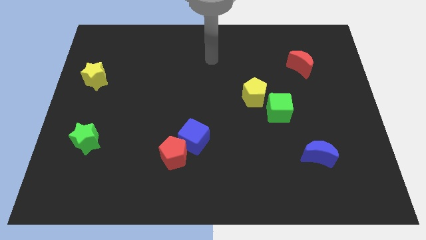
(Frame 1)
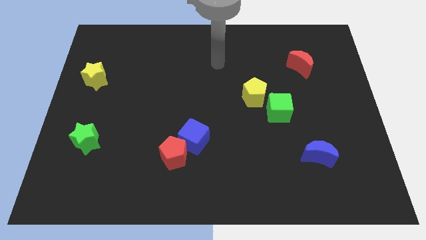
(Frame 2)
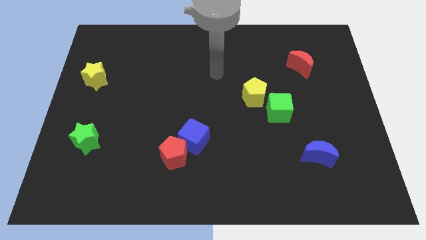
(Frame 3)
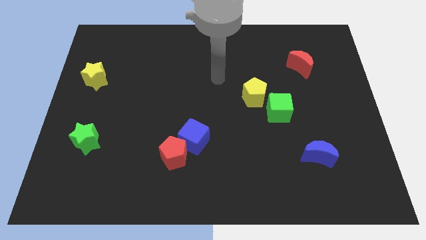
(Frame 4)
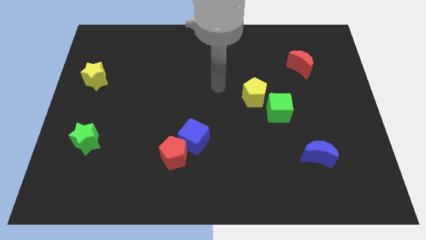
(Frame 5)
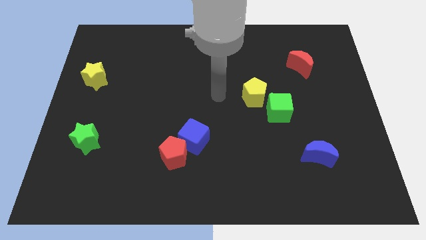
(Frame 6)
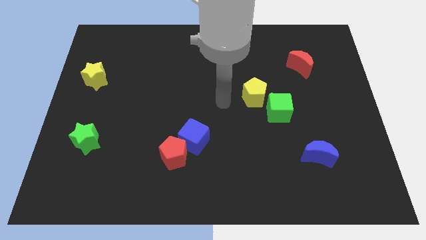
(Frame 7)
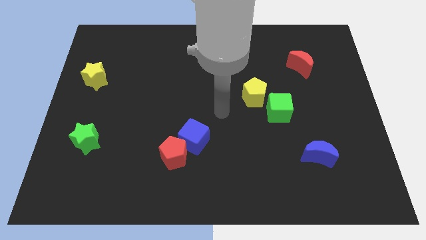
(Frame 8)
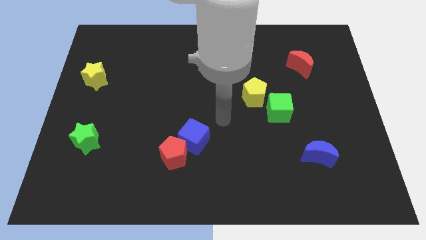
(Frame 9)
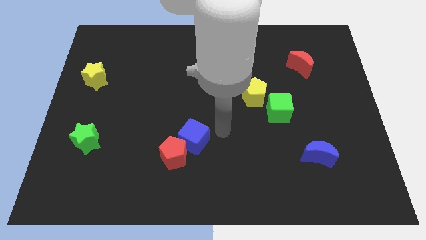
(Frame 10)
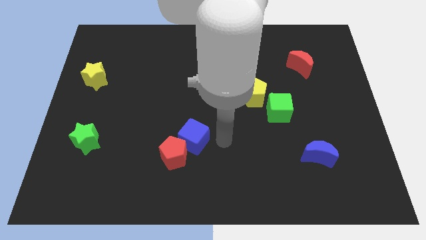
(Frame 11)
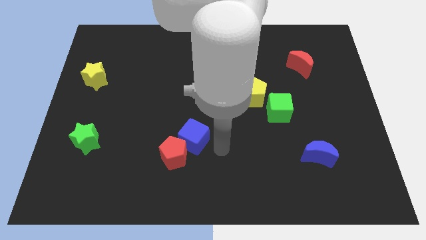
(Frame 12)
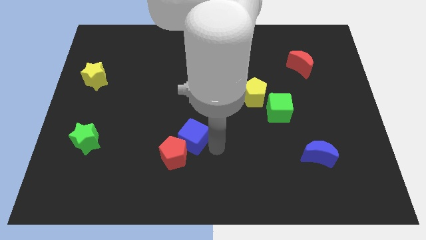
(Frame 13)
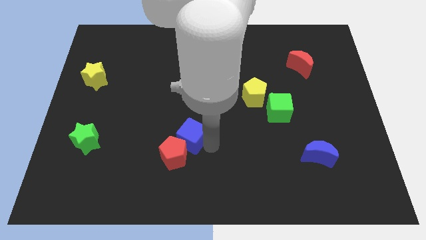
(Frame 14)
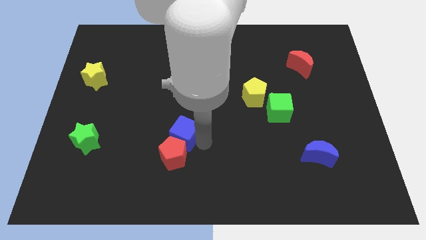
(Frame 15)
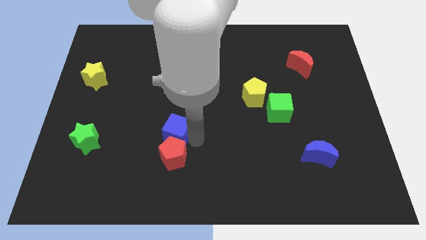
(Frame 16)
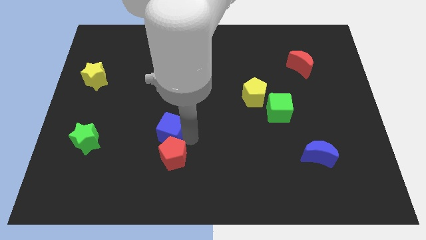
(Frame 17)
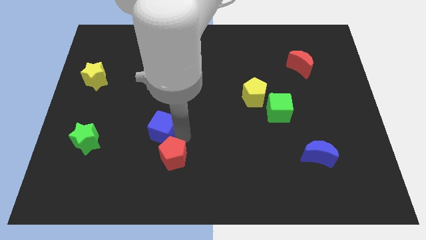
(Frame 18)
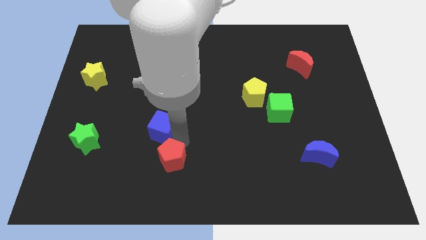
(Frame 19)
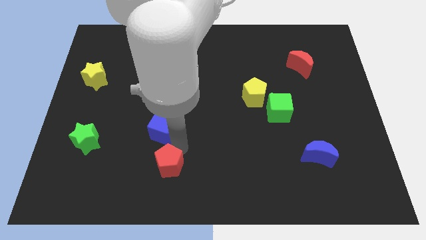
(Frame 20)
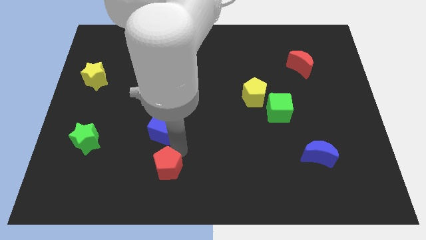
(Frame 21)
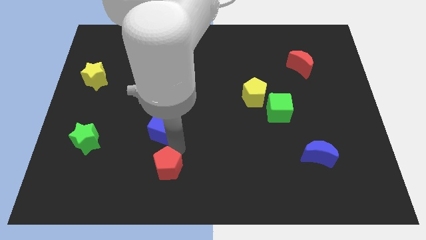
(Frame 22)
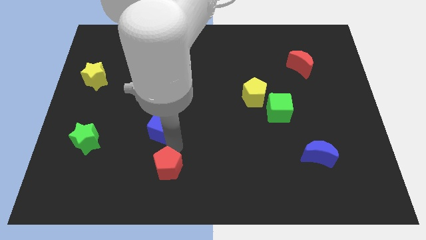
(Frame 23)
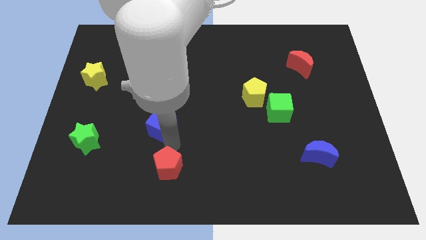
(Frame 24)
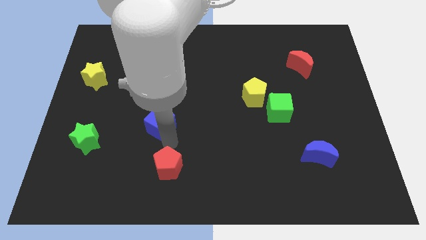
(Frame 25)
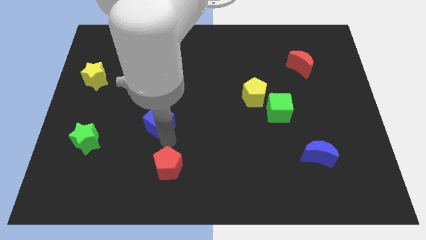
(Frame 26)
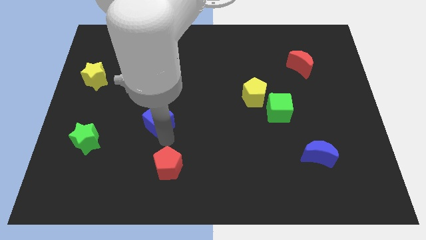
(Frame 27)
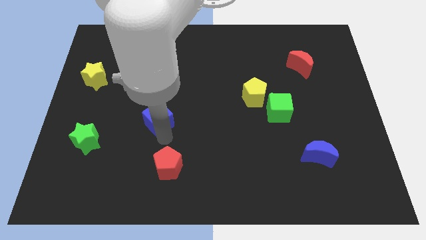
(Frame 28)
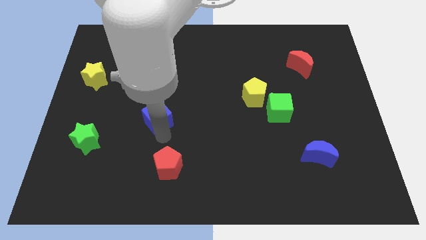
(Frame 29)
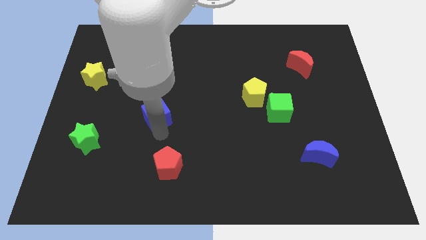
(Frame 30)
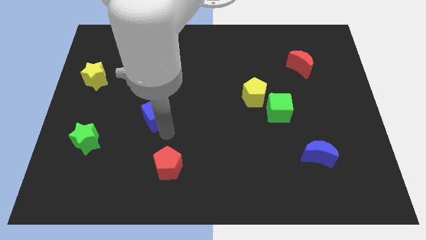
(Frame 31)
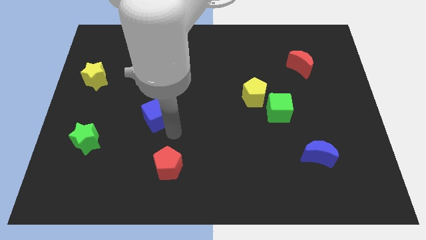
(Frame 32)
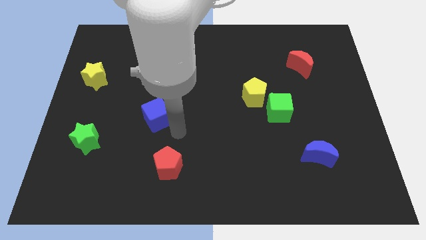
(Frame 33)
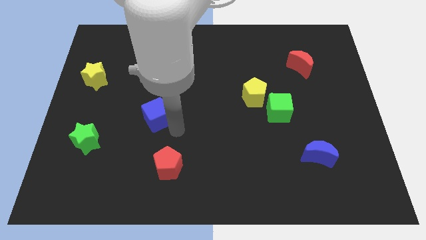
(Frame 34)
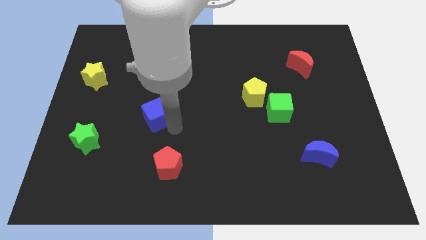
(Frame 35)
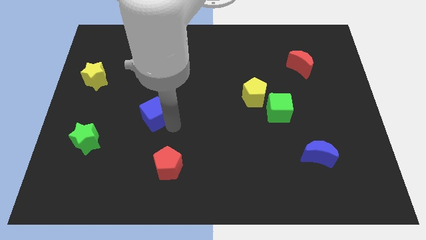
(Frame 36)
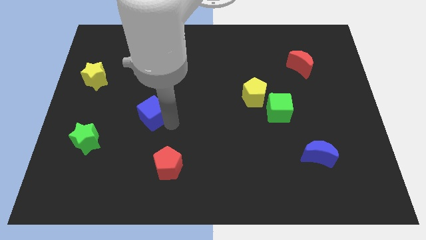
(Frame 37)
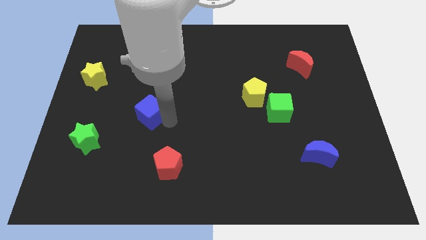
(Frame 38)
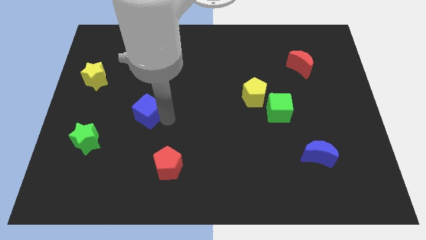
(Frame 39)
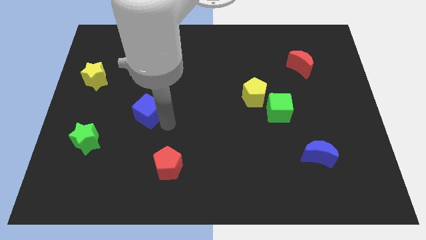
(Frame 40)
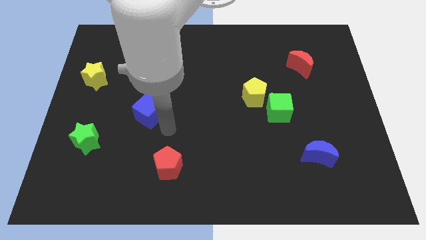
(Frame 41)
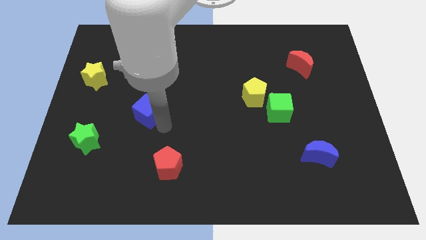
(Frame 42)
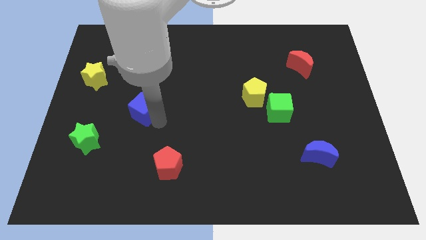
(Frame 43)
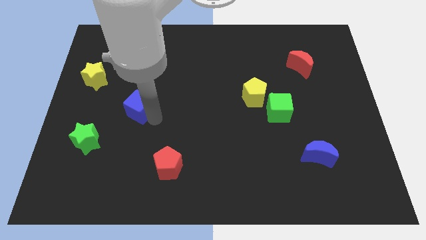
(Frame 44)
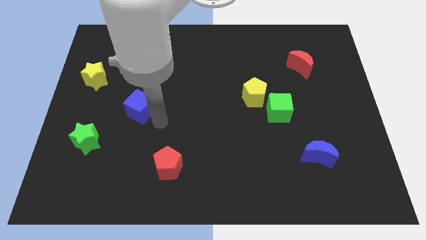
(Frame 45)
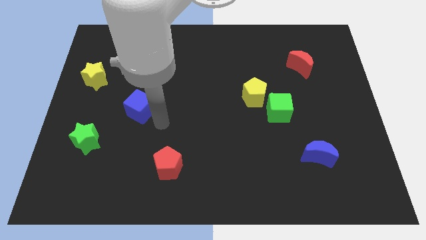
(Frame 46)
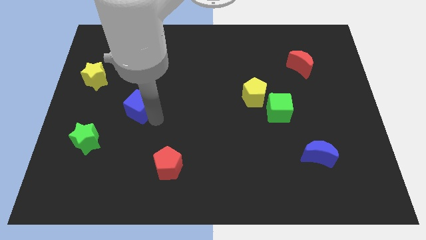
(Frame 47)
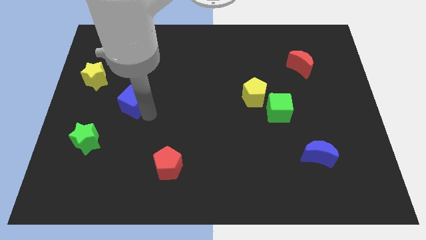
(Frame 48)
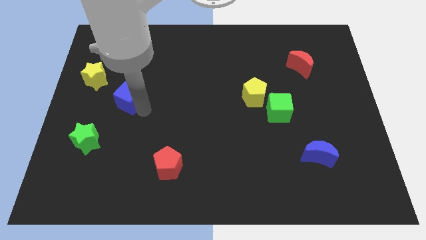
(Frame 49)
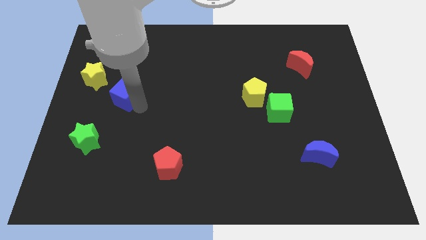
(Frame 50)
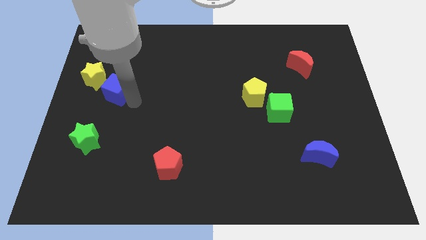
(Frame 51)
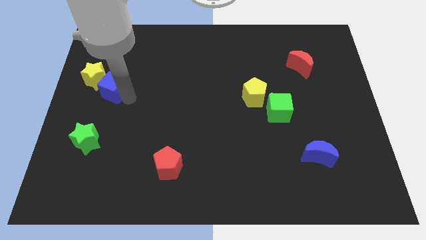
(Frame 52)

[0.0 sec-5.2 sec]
slide the blue cube towards the yellow star

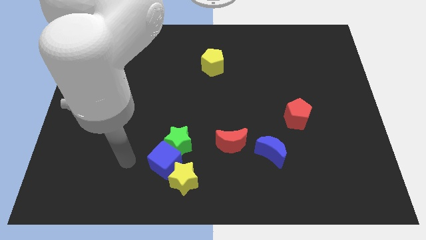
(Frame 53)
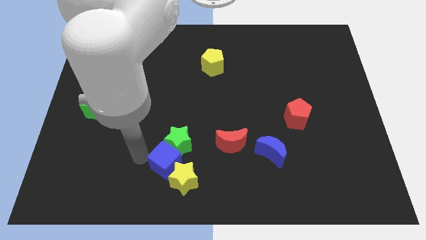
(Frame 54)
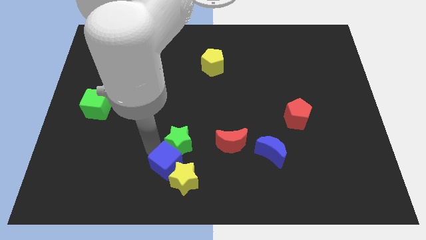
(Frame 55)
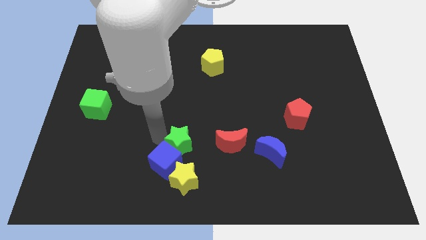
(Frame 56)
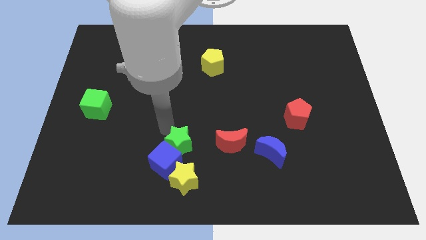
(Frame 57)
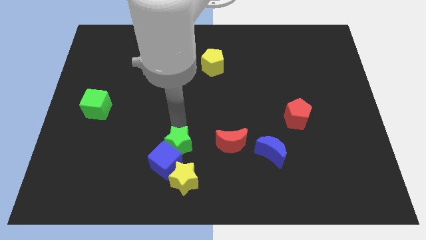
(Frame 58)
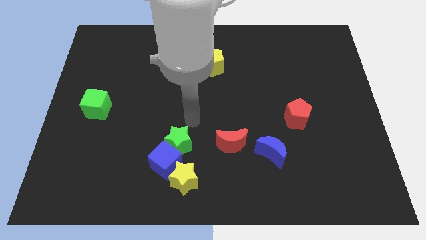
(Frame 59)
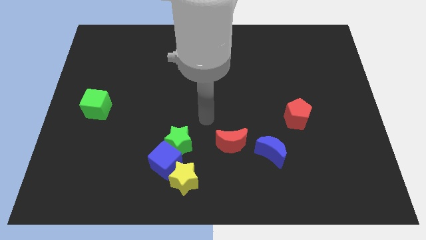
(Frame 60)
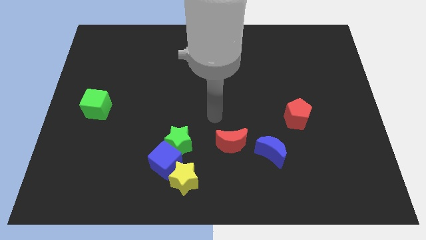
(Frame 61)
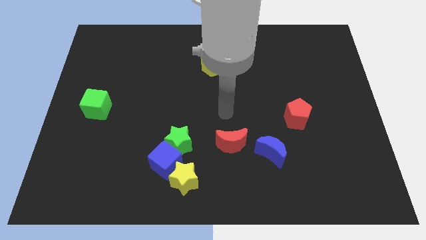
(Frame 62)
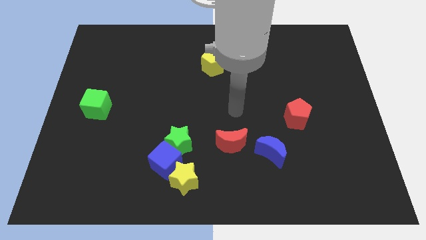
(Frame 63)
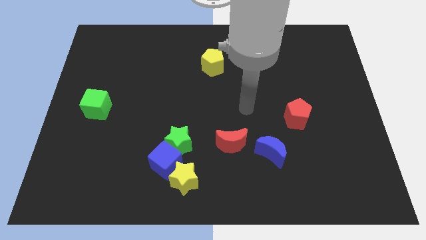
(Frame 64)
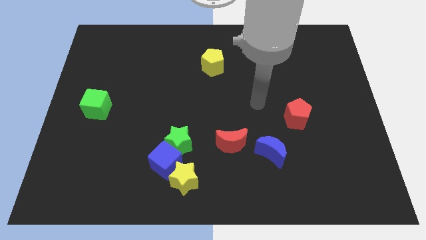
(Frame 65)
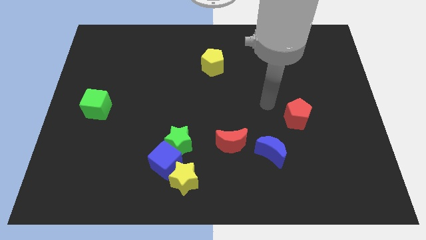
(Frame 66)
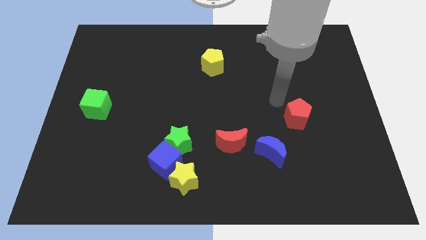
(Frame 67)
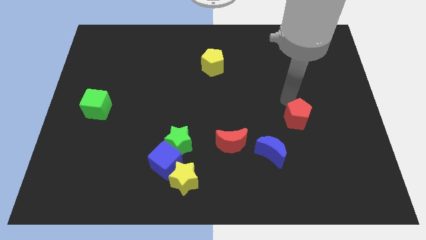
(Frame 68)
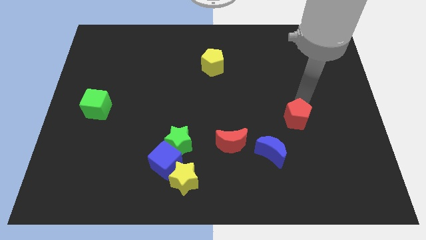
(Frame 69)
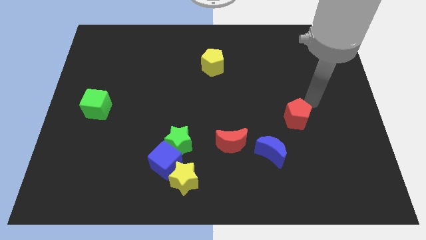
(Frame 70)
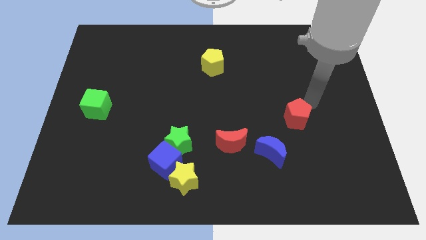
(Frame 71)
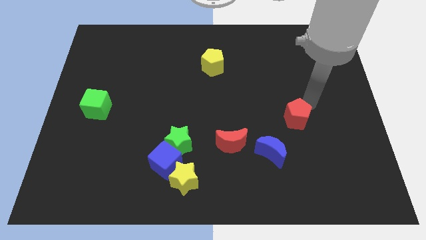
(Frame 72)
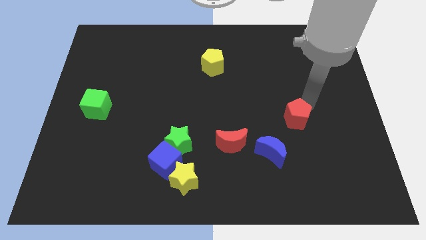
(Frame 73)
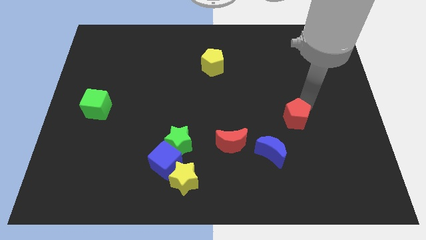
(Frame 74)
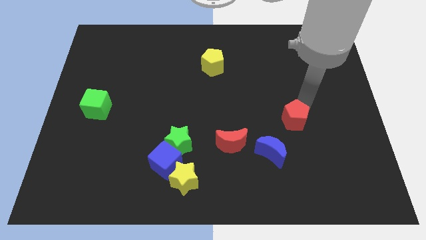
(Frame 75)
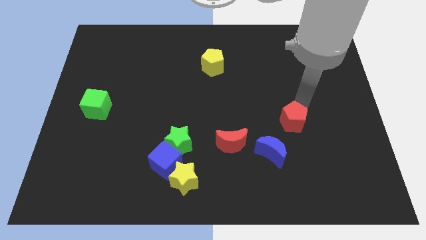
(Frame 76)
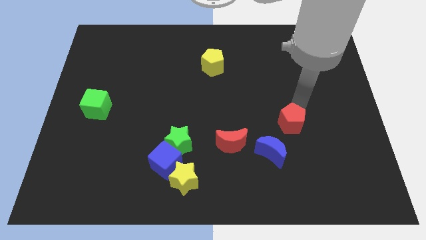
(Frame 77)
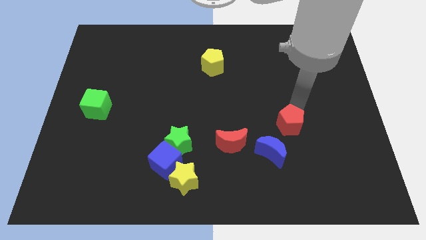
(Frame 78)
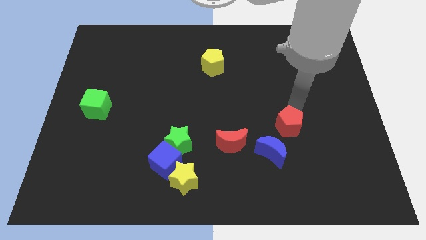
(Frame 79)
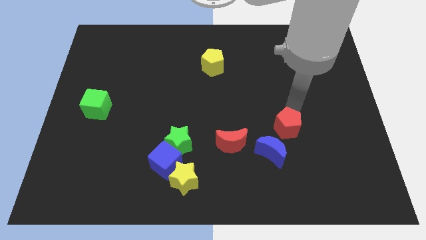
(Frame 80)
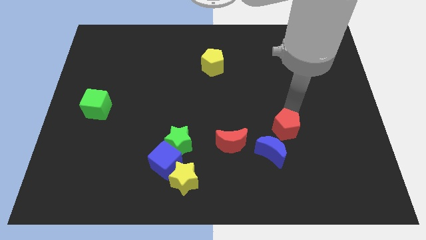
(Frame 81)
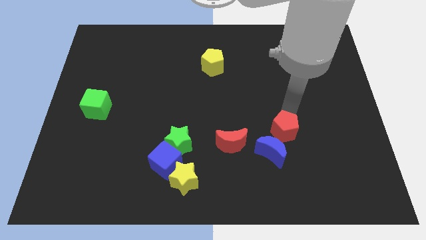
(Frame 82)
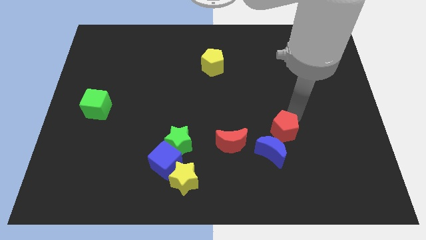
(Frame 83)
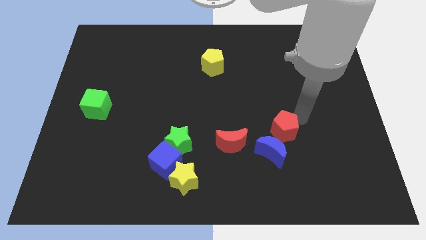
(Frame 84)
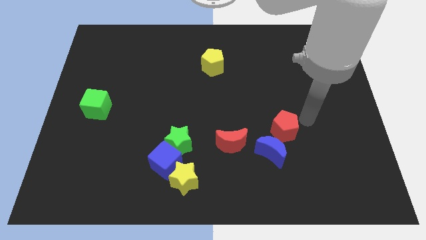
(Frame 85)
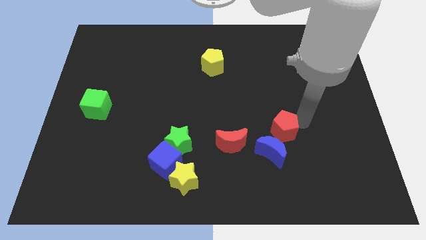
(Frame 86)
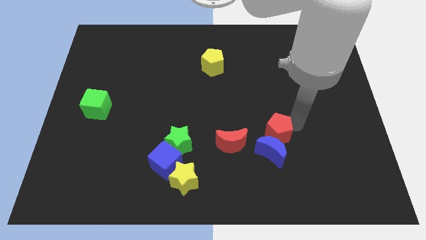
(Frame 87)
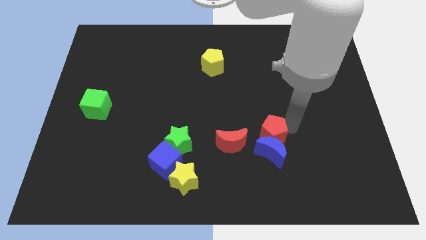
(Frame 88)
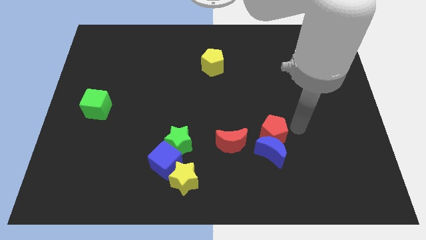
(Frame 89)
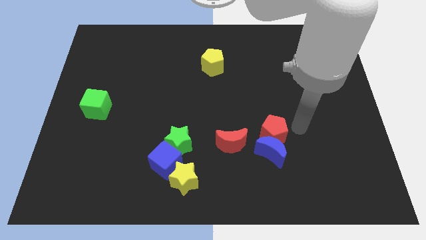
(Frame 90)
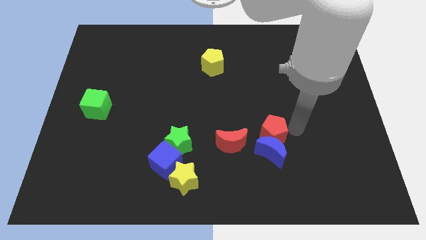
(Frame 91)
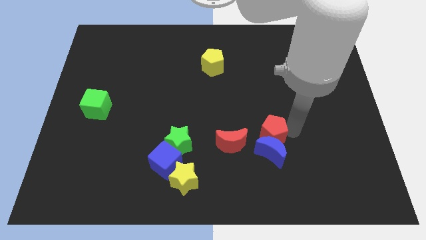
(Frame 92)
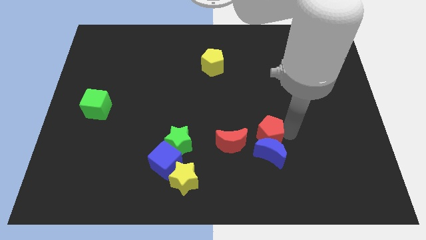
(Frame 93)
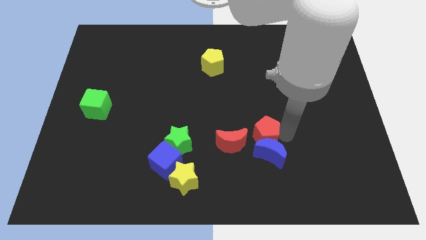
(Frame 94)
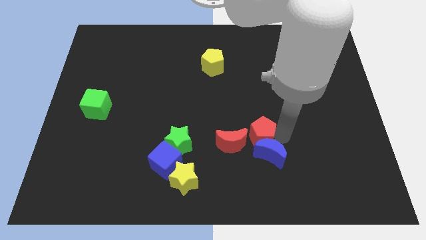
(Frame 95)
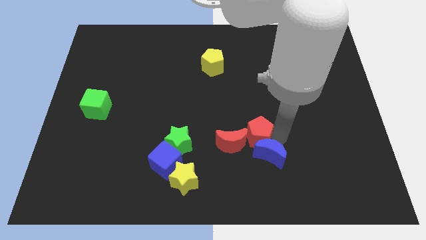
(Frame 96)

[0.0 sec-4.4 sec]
put the red pentagon next to the red moon
